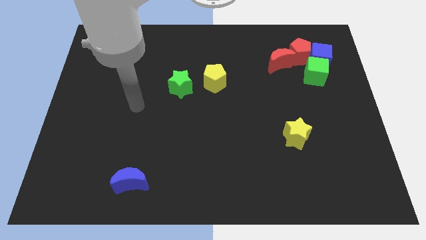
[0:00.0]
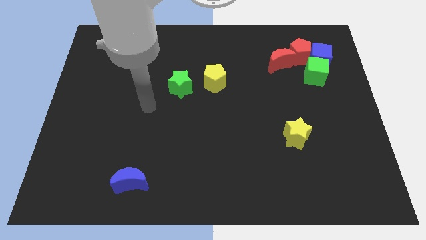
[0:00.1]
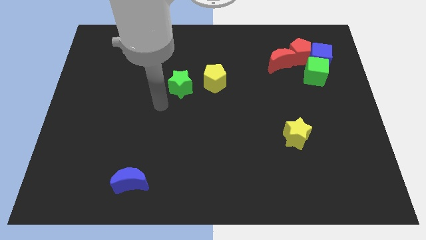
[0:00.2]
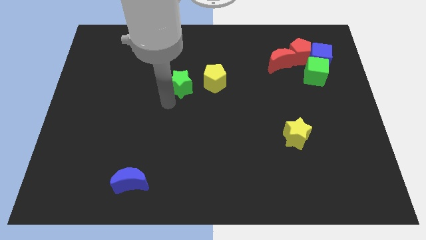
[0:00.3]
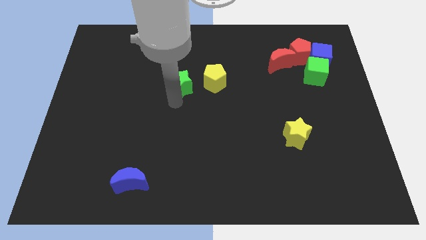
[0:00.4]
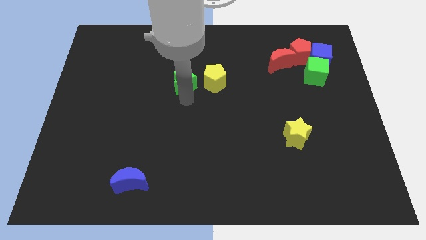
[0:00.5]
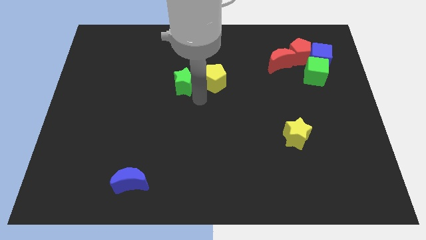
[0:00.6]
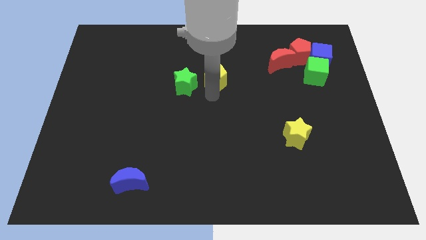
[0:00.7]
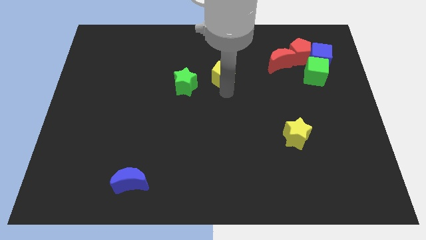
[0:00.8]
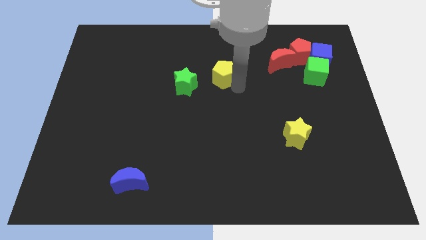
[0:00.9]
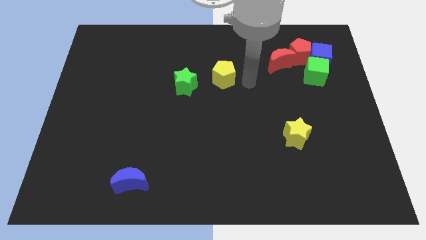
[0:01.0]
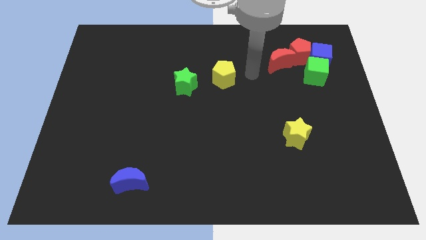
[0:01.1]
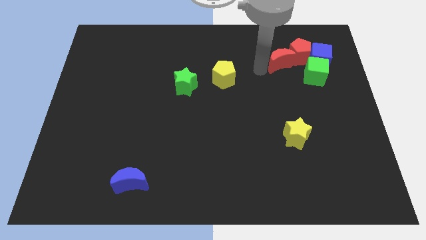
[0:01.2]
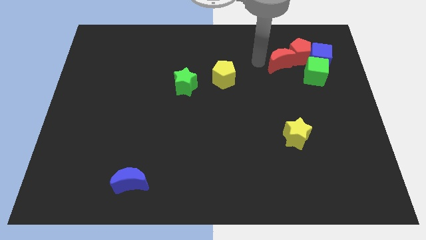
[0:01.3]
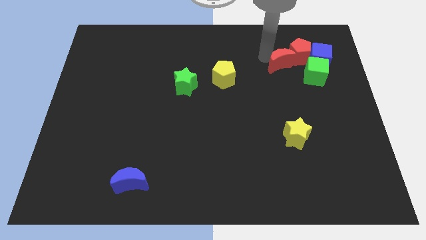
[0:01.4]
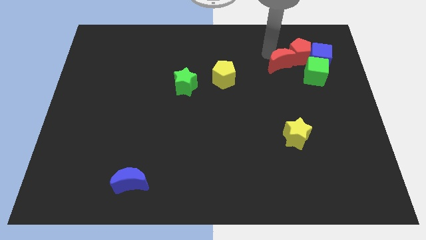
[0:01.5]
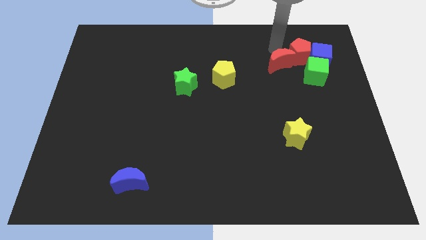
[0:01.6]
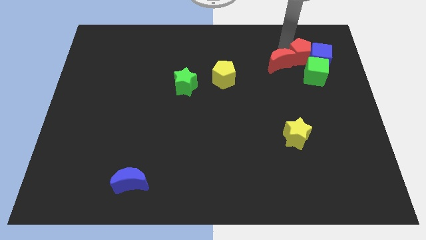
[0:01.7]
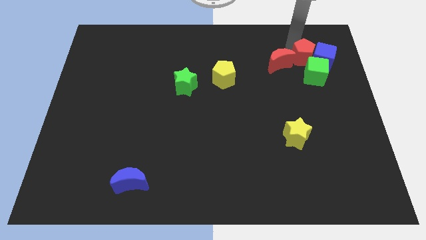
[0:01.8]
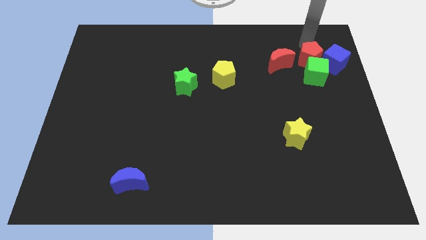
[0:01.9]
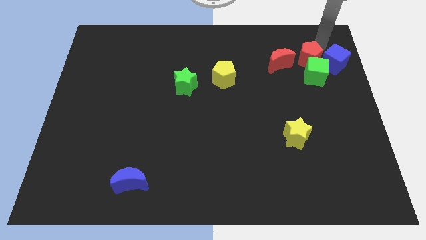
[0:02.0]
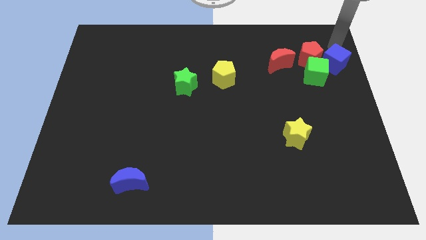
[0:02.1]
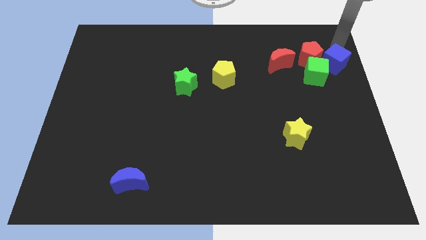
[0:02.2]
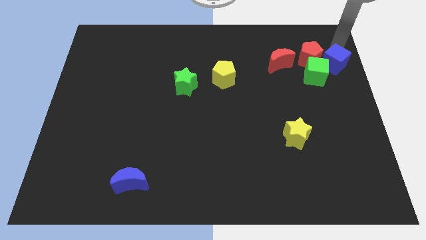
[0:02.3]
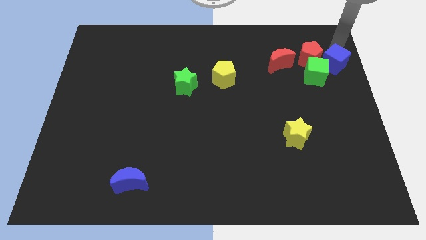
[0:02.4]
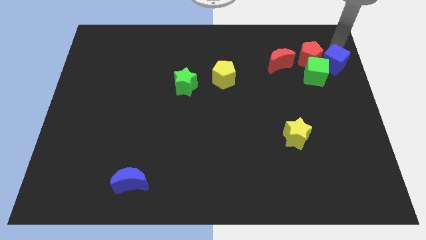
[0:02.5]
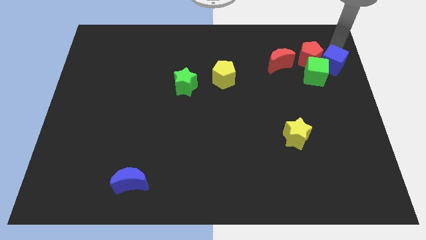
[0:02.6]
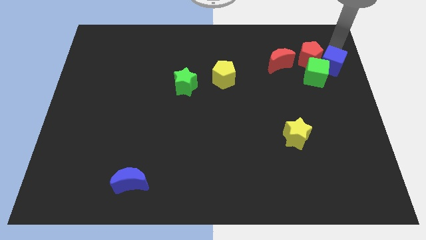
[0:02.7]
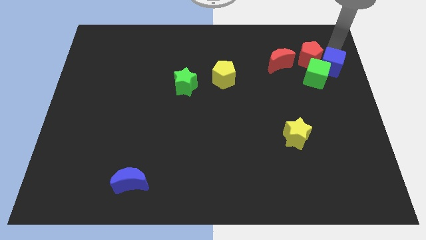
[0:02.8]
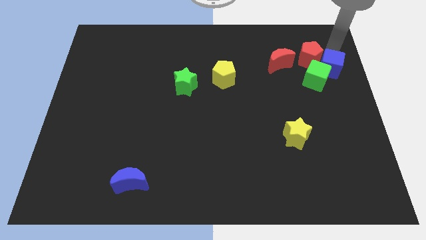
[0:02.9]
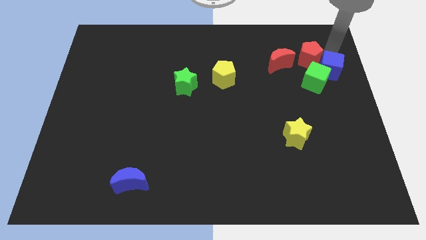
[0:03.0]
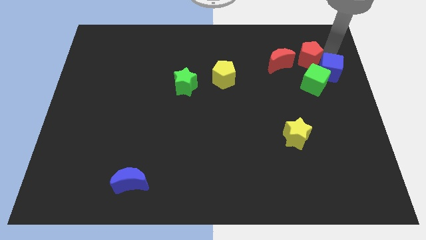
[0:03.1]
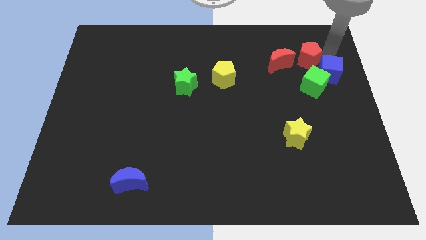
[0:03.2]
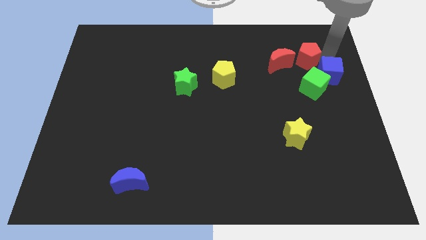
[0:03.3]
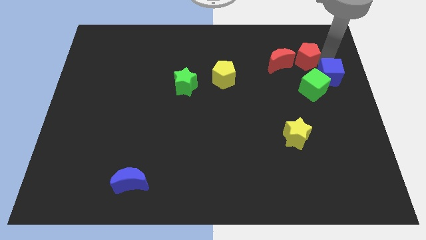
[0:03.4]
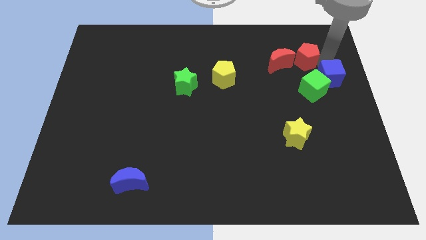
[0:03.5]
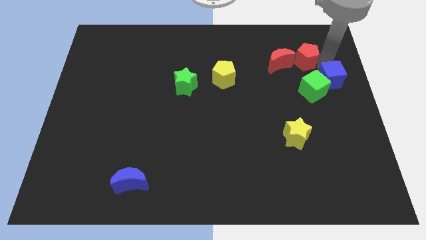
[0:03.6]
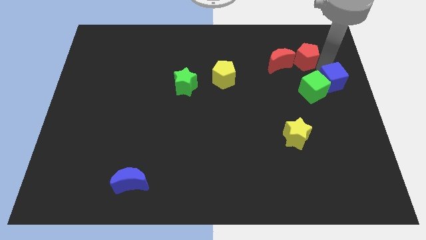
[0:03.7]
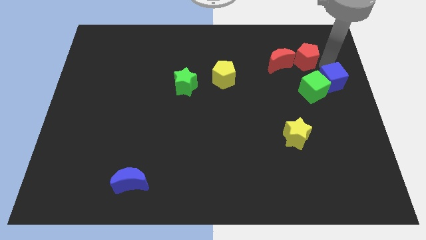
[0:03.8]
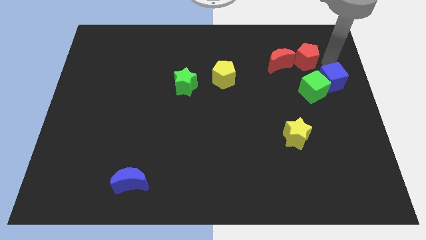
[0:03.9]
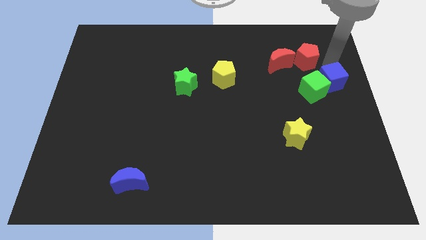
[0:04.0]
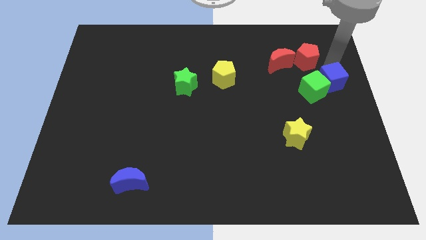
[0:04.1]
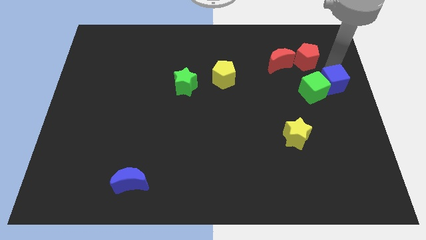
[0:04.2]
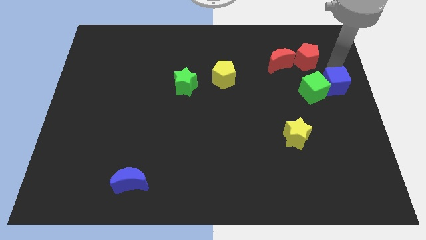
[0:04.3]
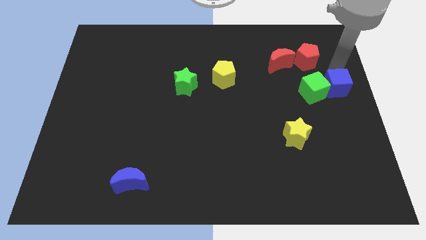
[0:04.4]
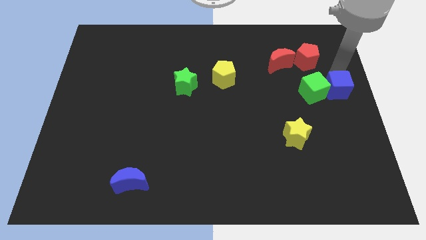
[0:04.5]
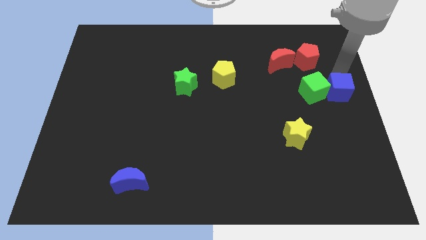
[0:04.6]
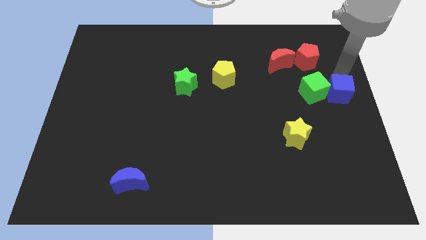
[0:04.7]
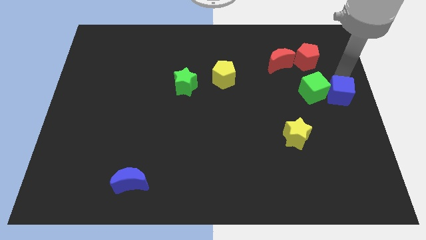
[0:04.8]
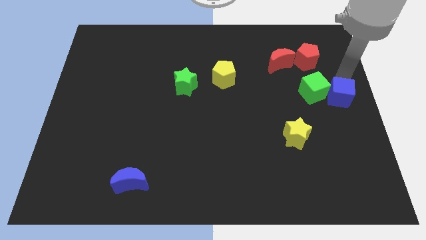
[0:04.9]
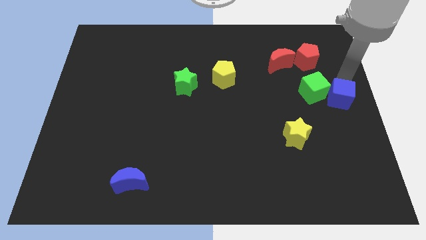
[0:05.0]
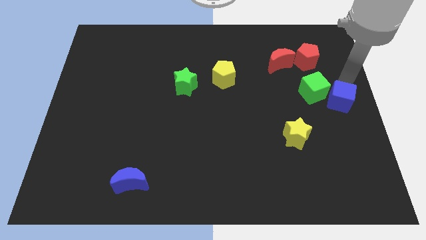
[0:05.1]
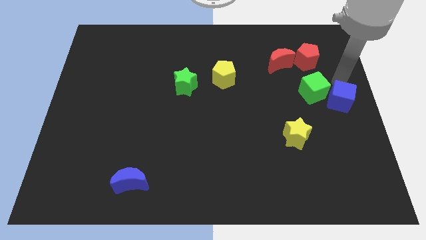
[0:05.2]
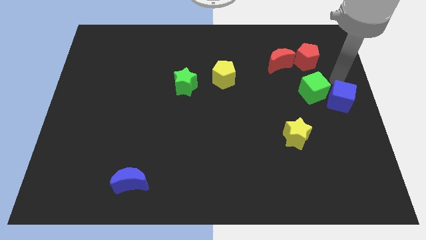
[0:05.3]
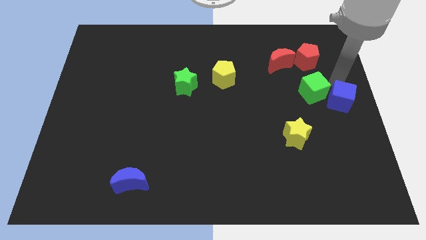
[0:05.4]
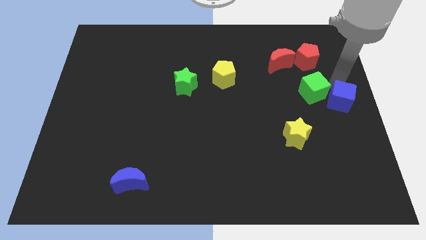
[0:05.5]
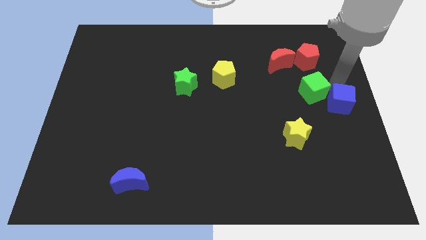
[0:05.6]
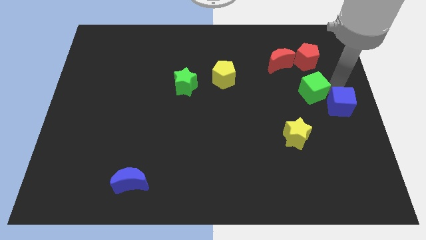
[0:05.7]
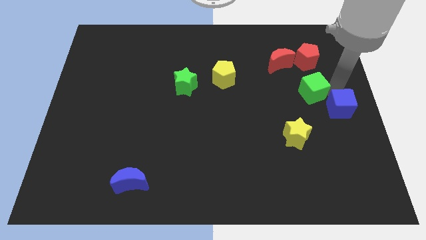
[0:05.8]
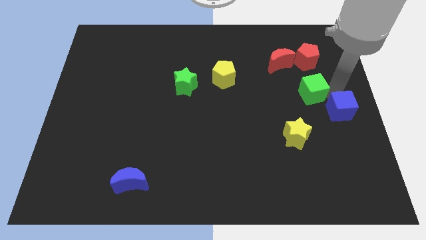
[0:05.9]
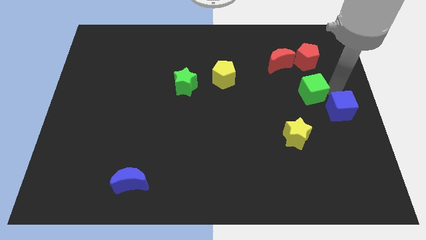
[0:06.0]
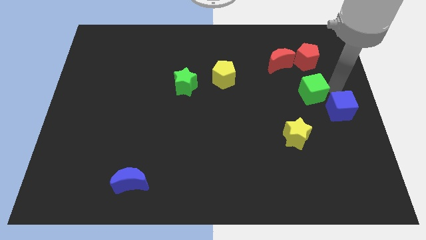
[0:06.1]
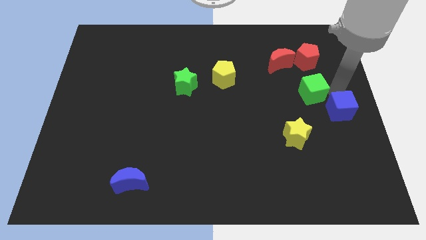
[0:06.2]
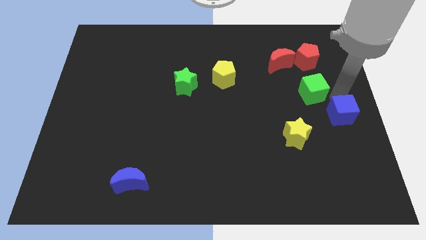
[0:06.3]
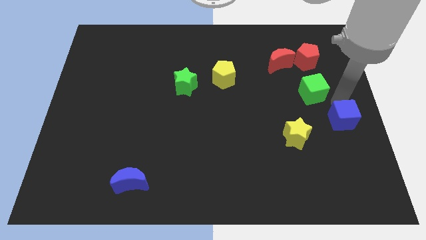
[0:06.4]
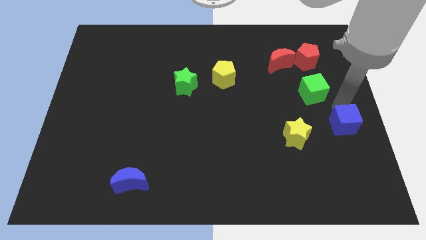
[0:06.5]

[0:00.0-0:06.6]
push the blue cube down

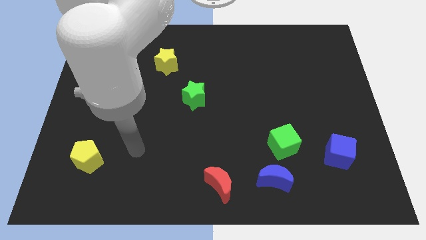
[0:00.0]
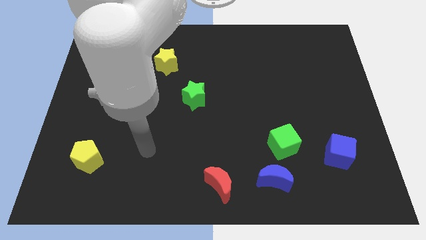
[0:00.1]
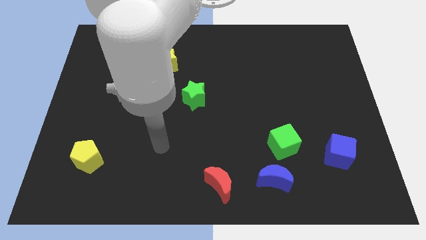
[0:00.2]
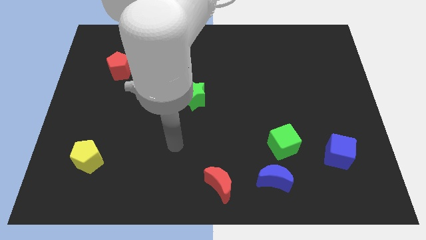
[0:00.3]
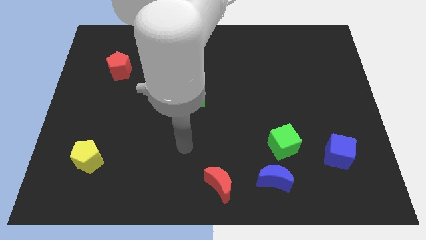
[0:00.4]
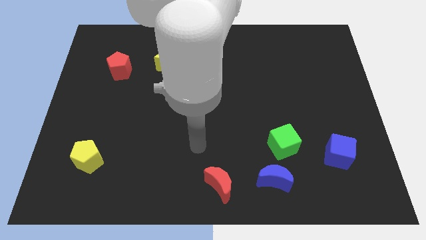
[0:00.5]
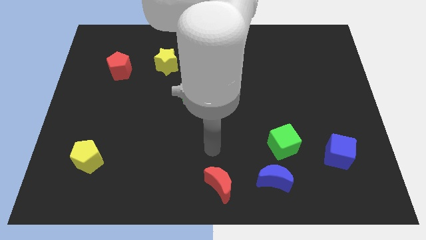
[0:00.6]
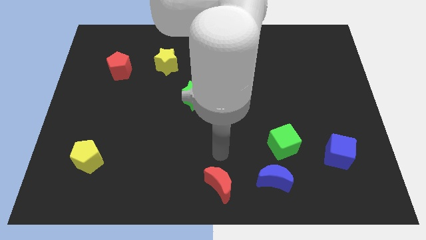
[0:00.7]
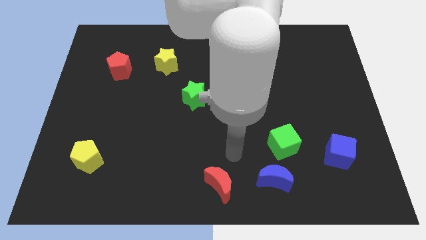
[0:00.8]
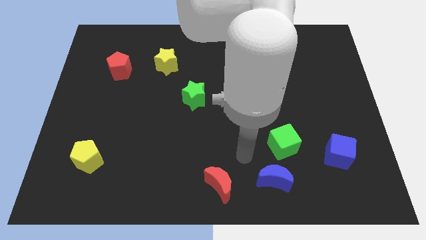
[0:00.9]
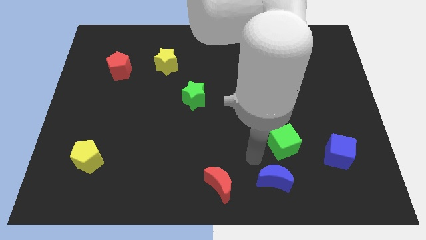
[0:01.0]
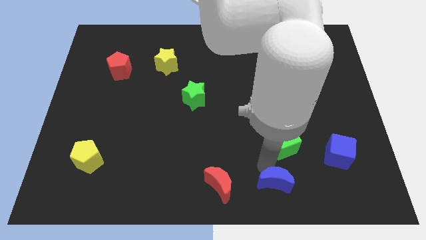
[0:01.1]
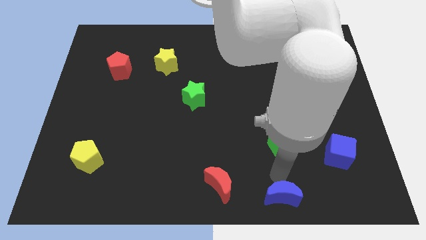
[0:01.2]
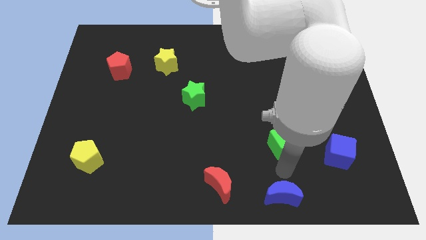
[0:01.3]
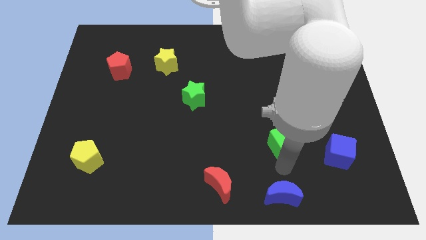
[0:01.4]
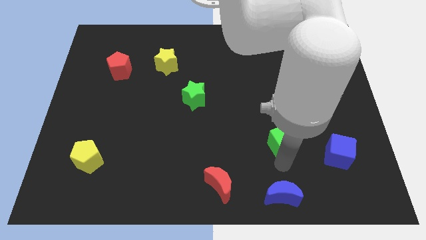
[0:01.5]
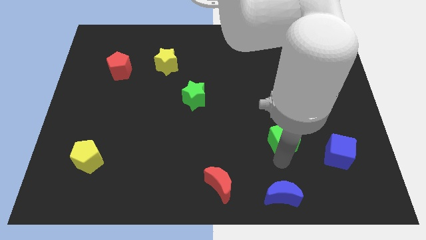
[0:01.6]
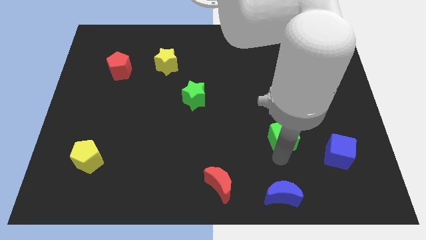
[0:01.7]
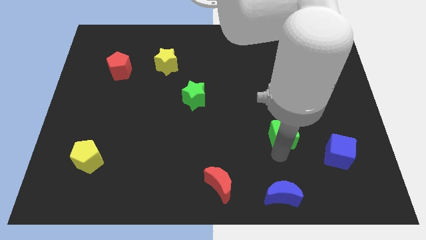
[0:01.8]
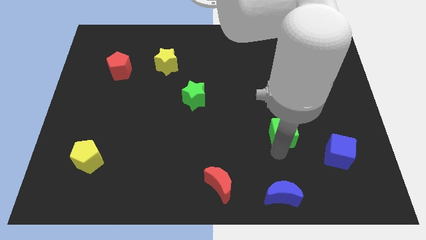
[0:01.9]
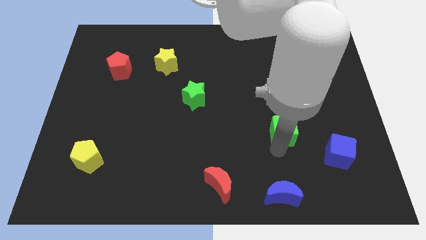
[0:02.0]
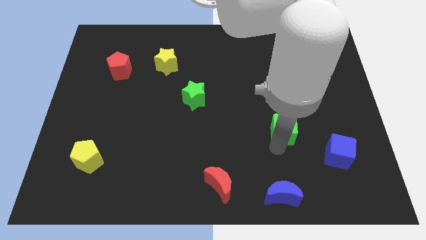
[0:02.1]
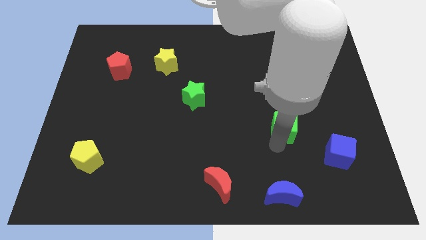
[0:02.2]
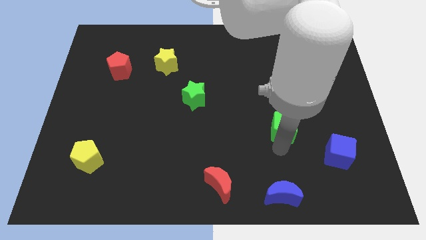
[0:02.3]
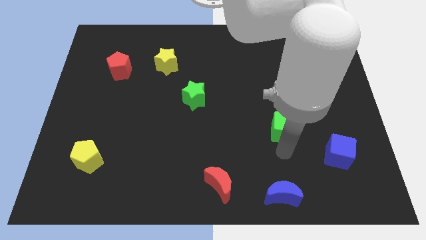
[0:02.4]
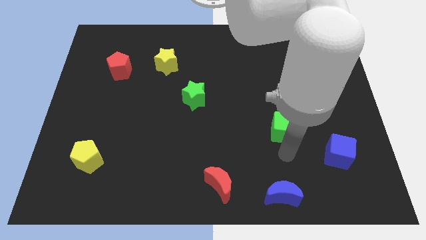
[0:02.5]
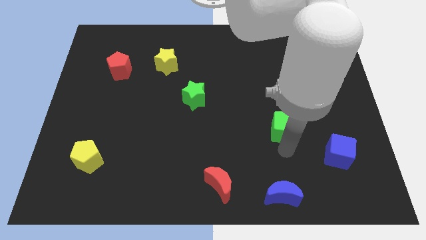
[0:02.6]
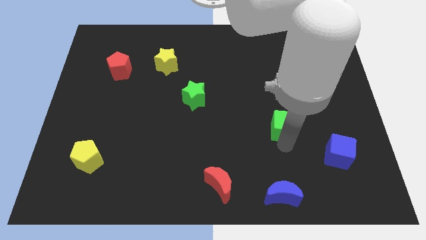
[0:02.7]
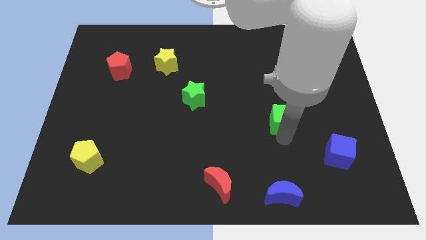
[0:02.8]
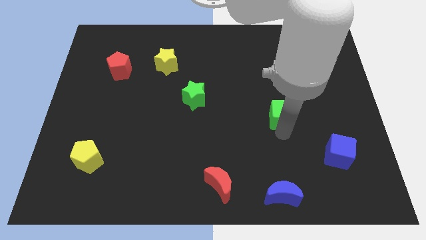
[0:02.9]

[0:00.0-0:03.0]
move the green cube somewhat up
